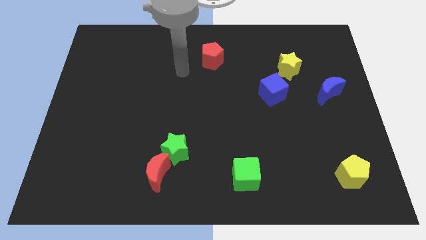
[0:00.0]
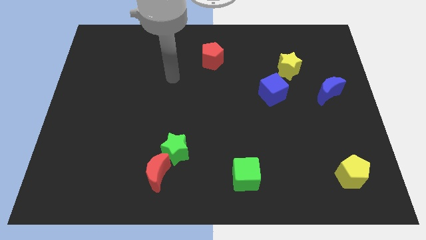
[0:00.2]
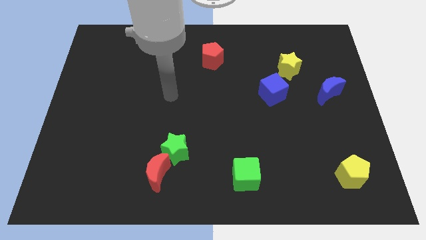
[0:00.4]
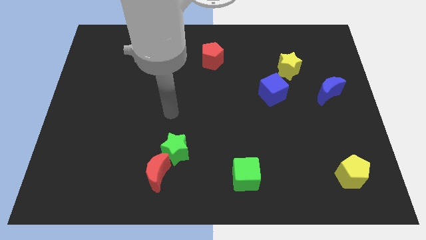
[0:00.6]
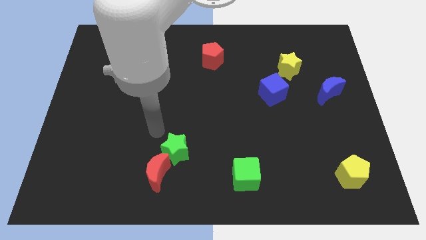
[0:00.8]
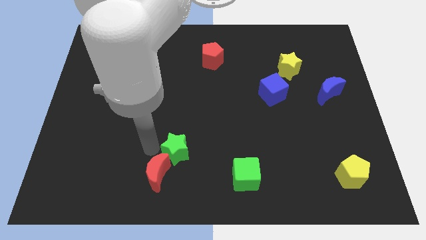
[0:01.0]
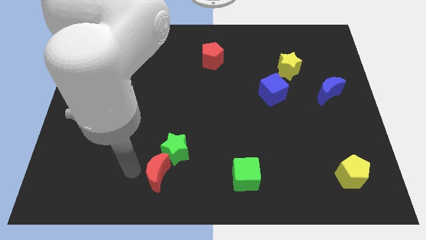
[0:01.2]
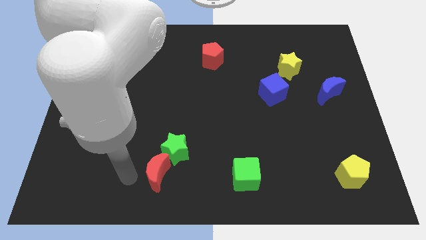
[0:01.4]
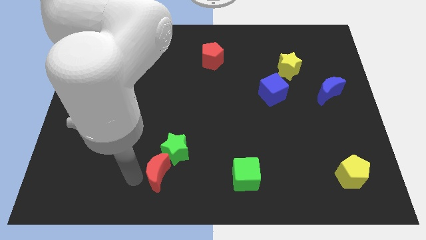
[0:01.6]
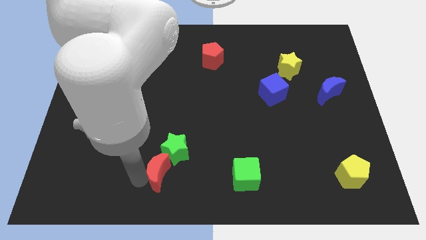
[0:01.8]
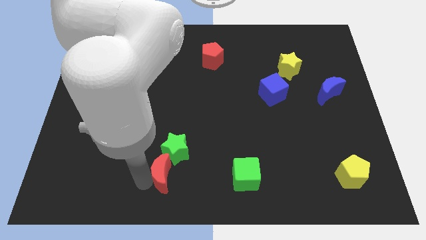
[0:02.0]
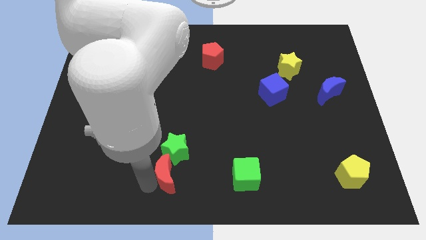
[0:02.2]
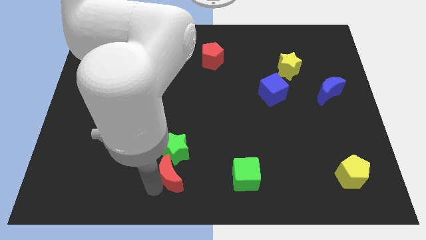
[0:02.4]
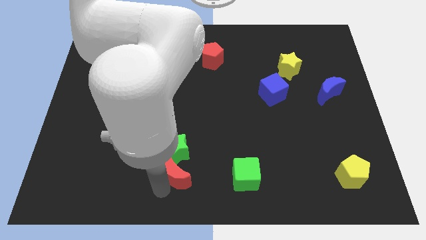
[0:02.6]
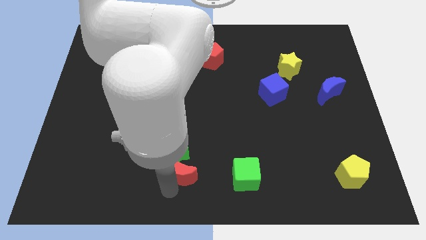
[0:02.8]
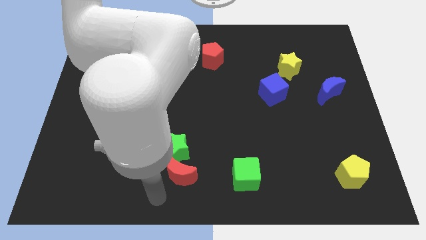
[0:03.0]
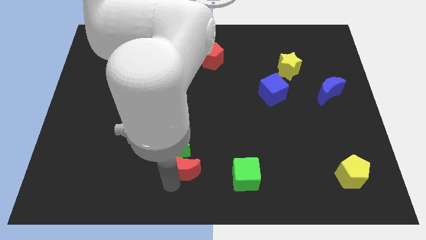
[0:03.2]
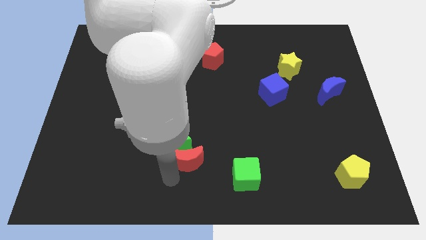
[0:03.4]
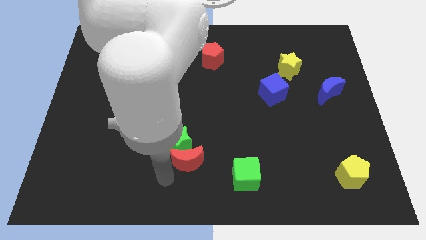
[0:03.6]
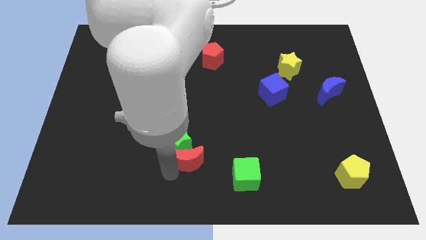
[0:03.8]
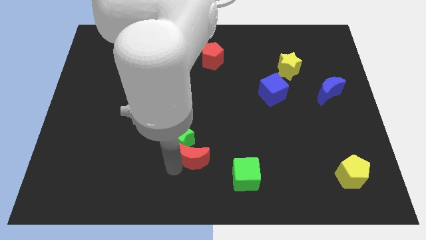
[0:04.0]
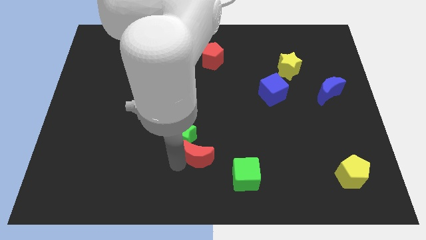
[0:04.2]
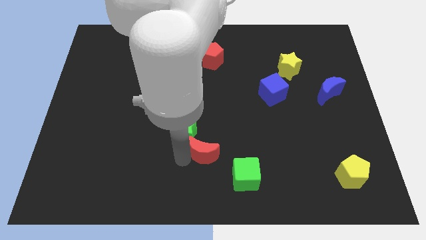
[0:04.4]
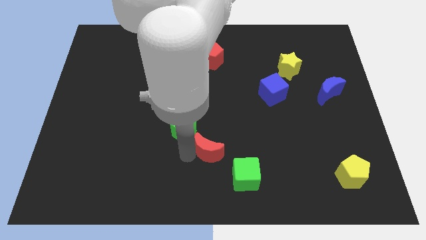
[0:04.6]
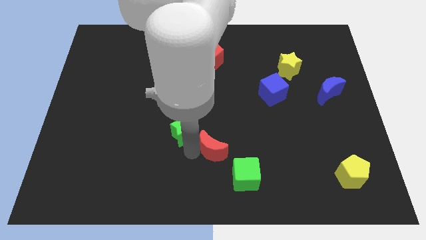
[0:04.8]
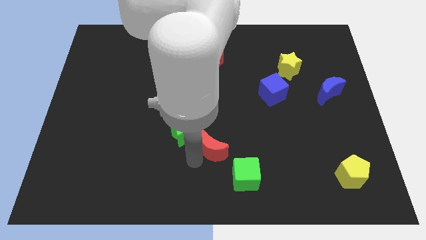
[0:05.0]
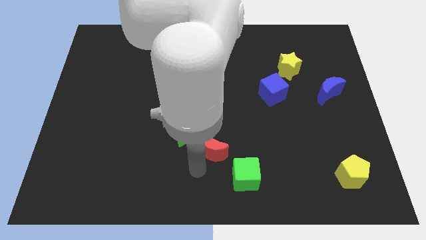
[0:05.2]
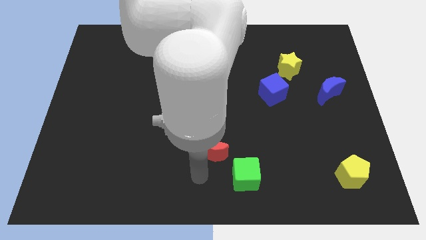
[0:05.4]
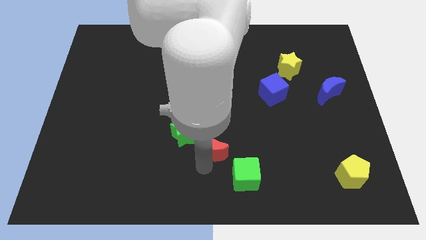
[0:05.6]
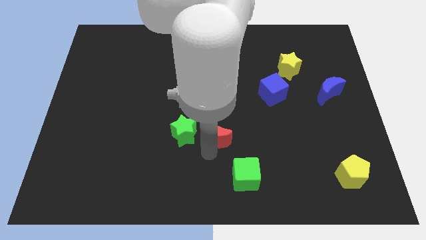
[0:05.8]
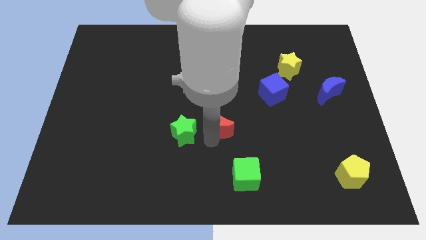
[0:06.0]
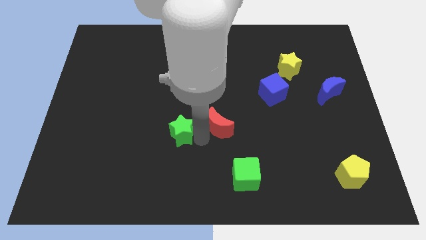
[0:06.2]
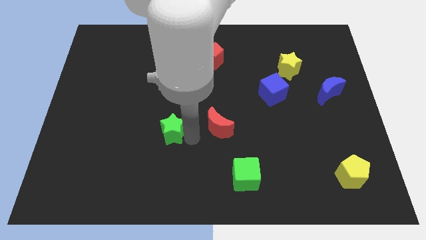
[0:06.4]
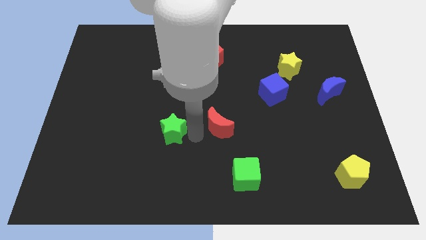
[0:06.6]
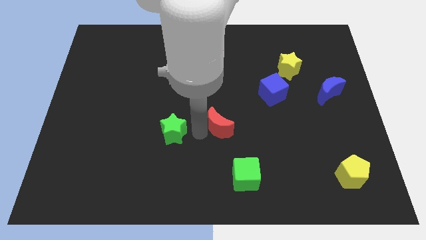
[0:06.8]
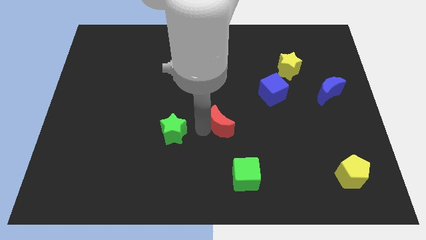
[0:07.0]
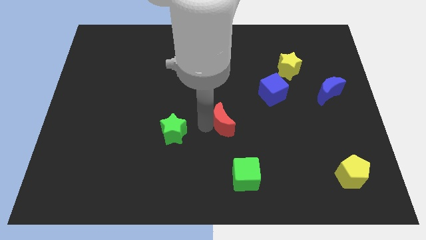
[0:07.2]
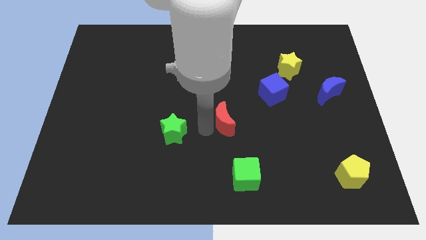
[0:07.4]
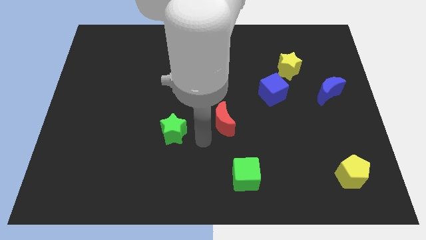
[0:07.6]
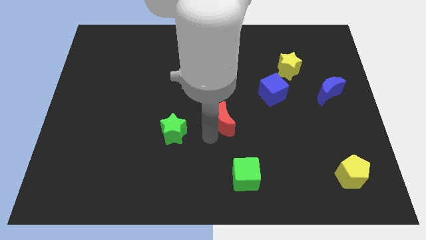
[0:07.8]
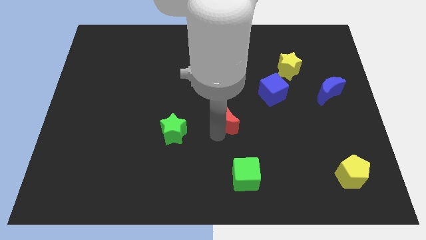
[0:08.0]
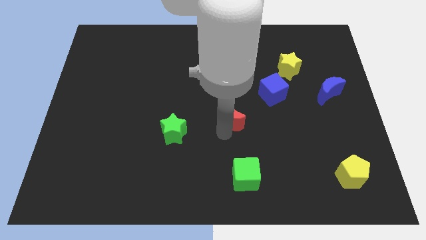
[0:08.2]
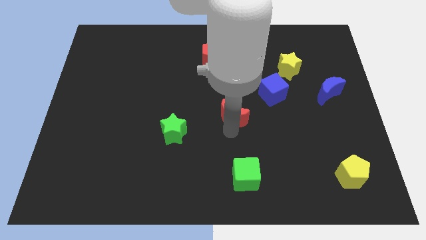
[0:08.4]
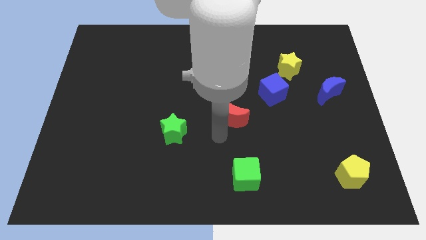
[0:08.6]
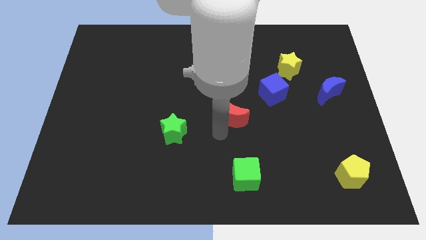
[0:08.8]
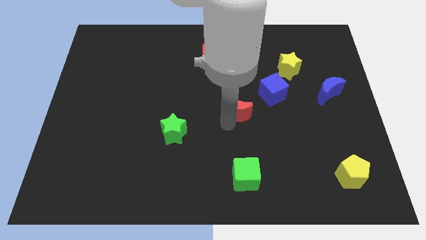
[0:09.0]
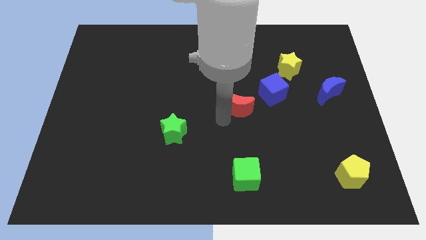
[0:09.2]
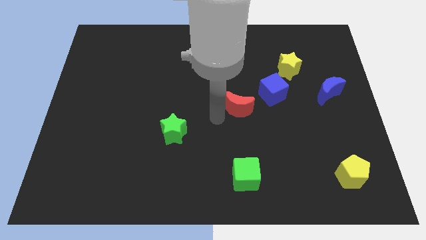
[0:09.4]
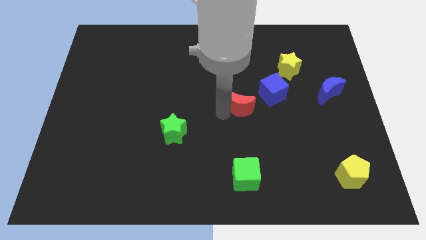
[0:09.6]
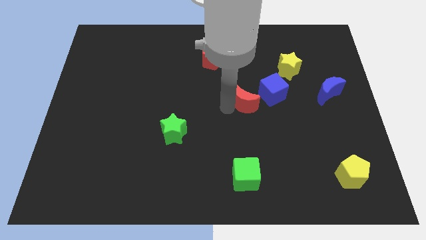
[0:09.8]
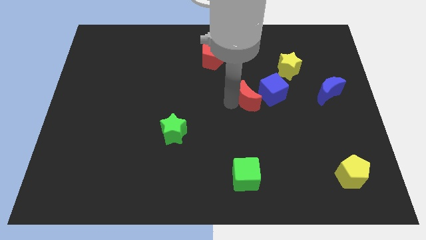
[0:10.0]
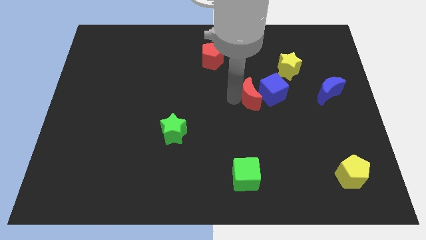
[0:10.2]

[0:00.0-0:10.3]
move the red moon towards the blue cube

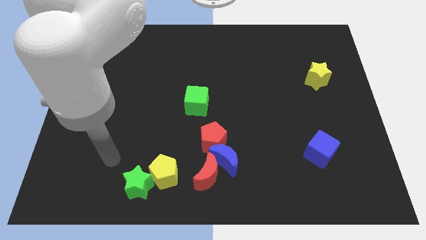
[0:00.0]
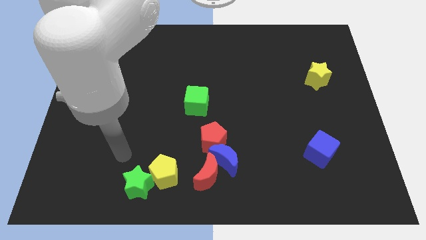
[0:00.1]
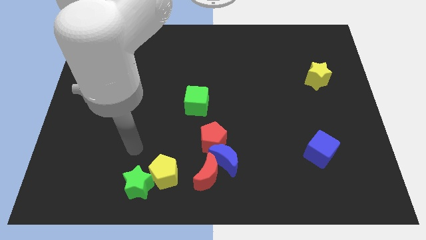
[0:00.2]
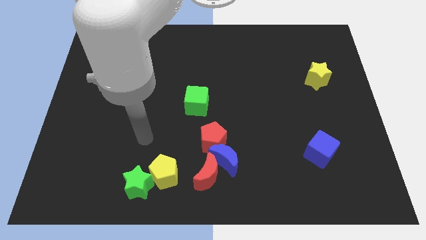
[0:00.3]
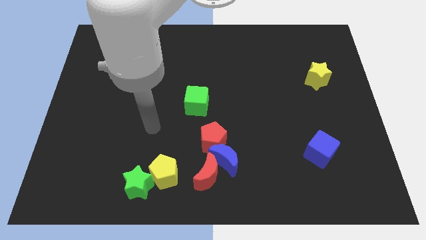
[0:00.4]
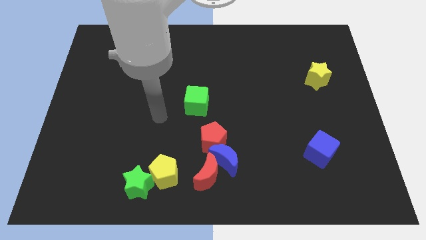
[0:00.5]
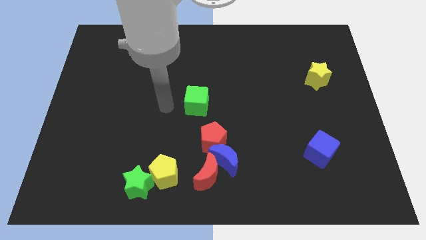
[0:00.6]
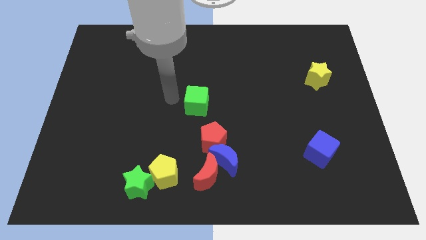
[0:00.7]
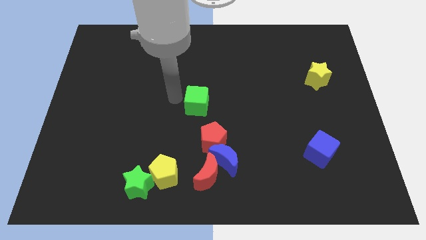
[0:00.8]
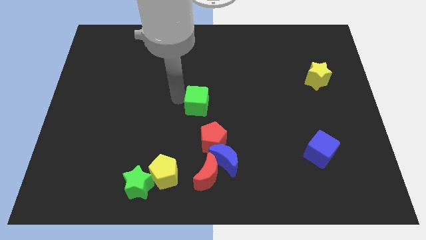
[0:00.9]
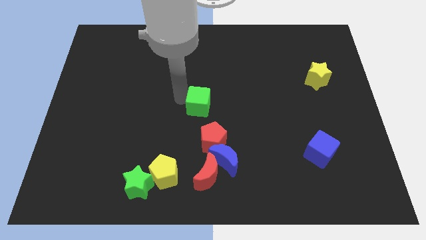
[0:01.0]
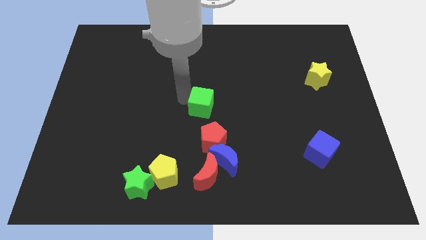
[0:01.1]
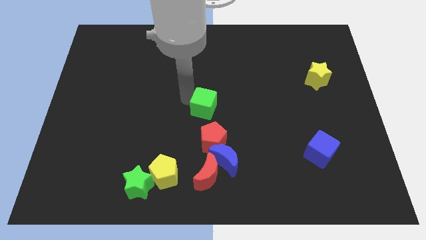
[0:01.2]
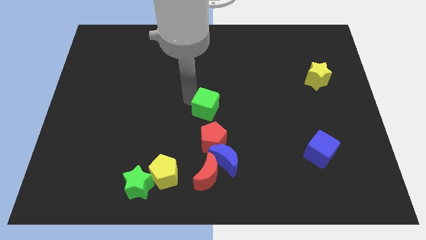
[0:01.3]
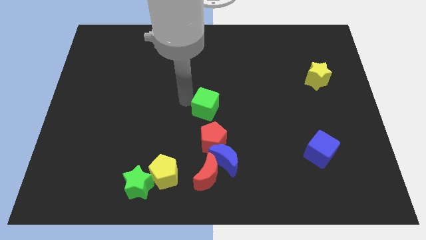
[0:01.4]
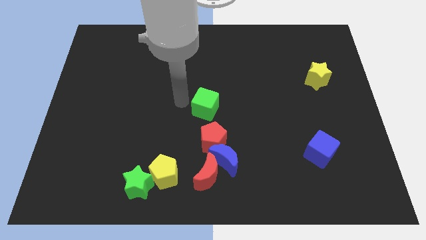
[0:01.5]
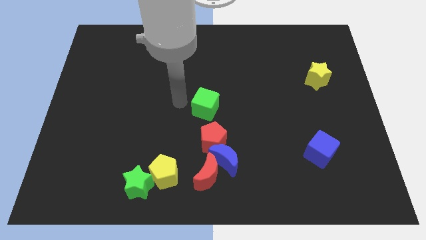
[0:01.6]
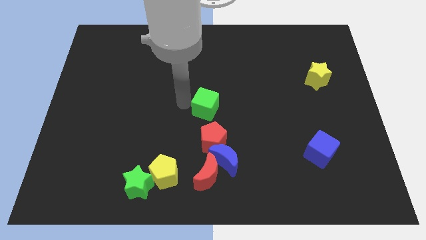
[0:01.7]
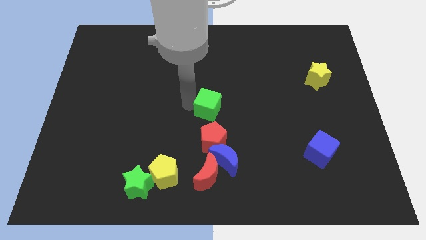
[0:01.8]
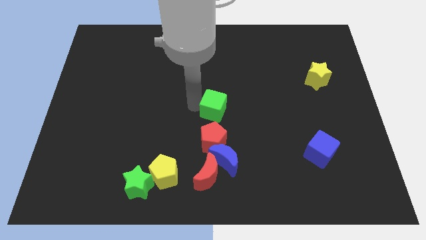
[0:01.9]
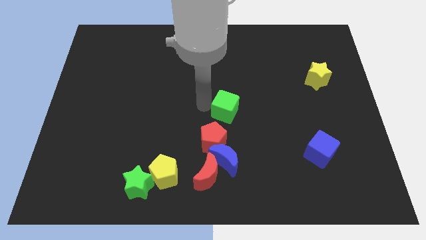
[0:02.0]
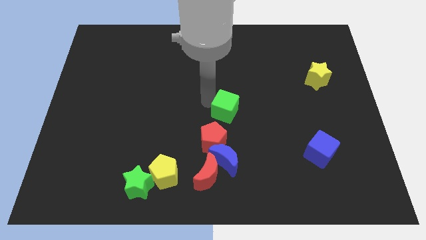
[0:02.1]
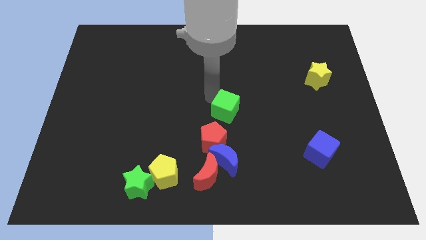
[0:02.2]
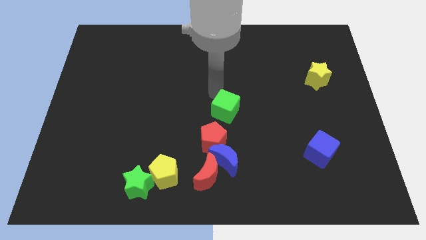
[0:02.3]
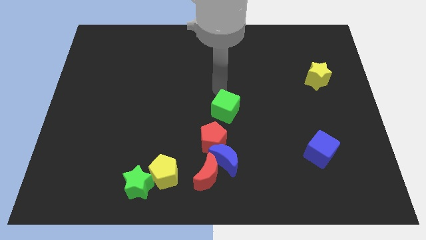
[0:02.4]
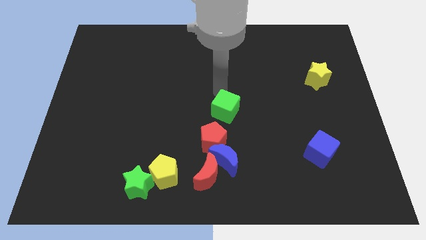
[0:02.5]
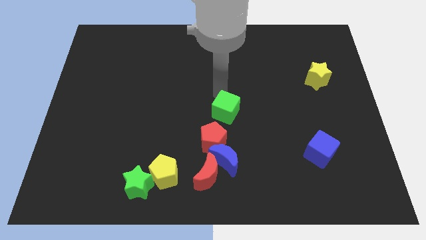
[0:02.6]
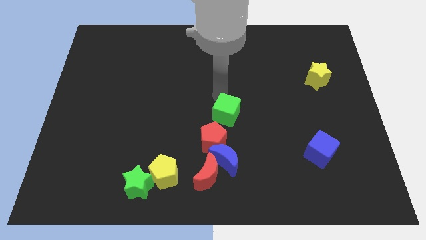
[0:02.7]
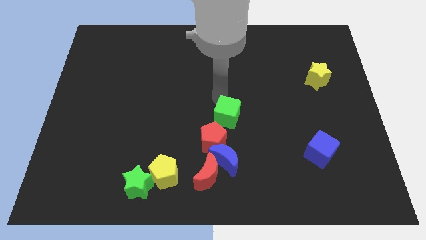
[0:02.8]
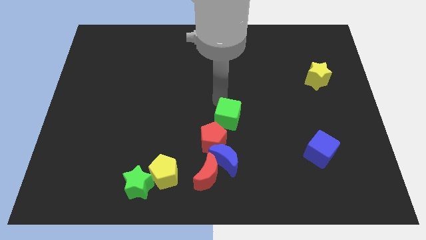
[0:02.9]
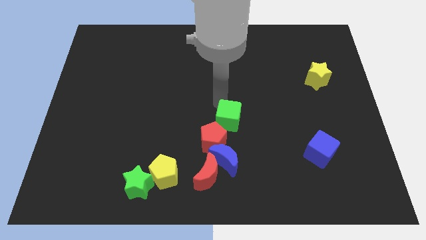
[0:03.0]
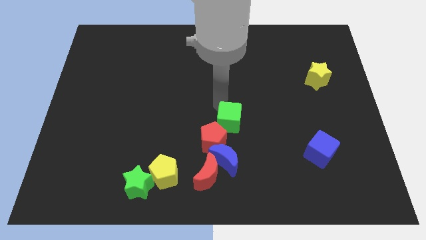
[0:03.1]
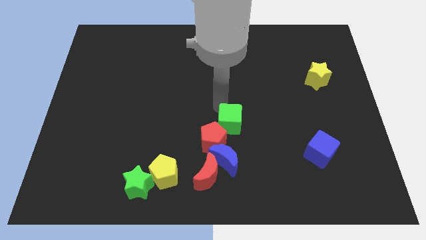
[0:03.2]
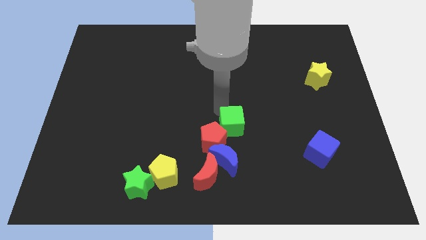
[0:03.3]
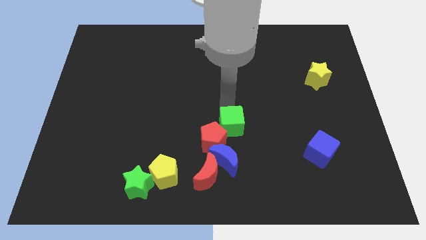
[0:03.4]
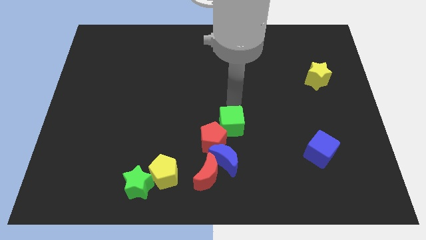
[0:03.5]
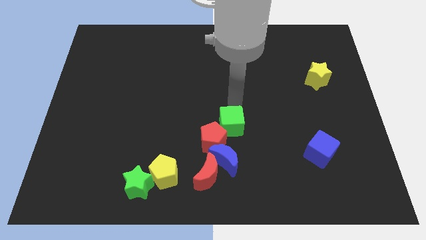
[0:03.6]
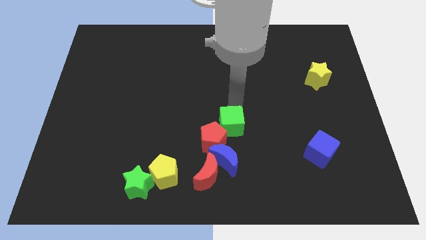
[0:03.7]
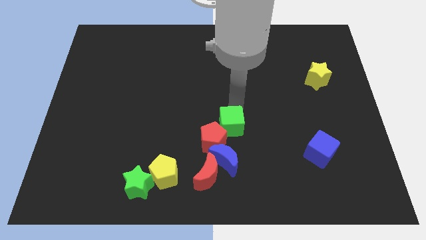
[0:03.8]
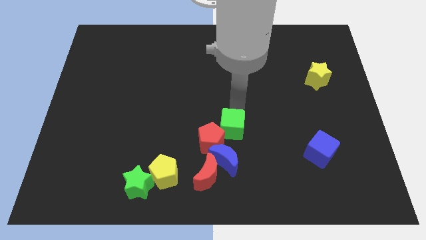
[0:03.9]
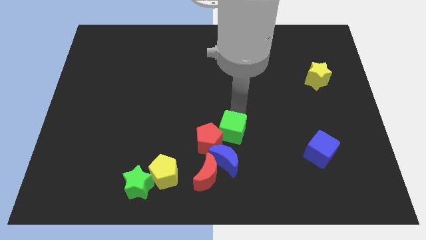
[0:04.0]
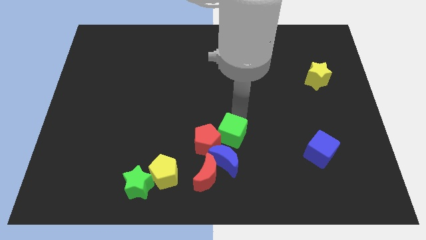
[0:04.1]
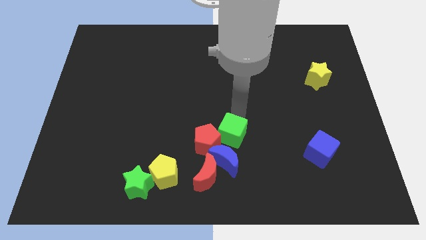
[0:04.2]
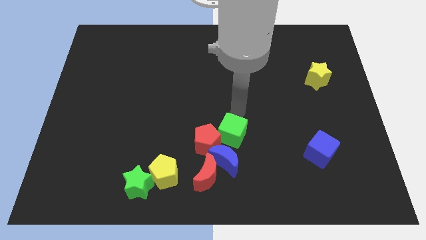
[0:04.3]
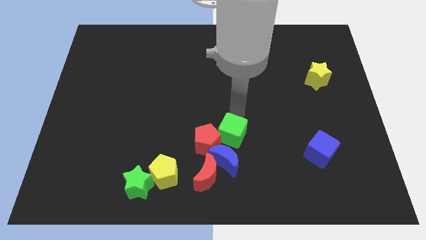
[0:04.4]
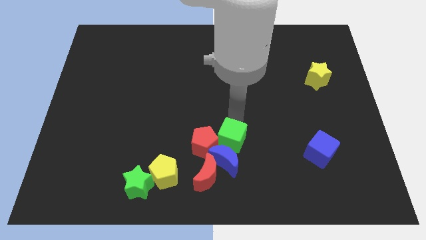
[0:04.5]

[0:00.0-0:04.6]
move the green cube towards the blue moon
